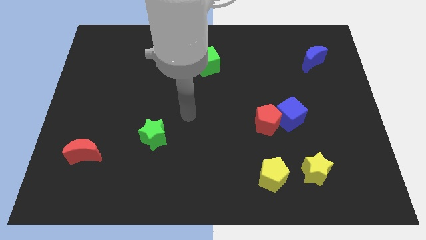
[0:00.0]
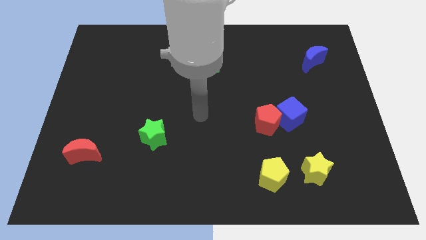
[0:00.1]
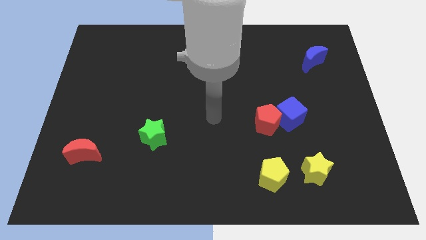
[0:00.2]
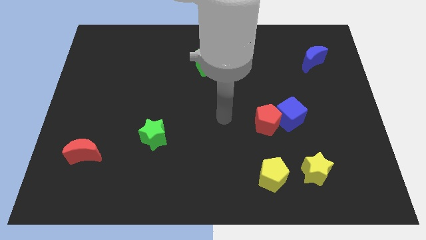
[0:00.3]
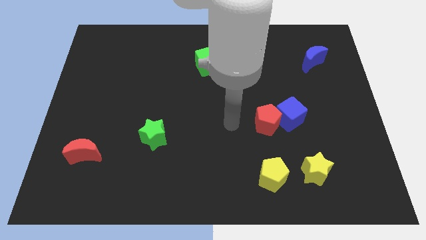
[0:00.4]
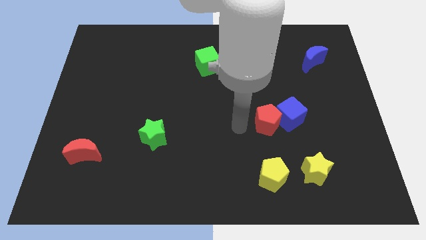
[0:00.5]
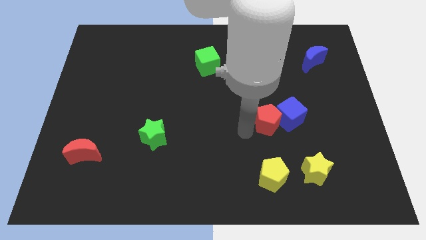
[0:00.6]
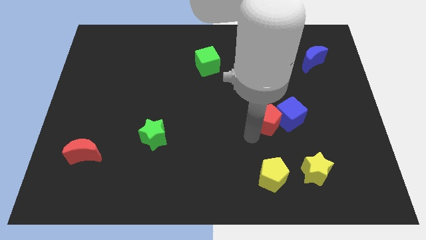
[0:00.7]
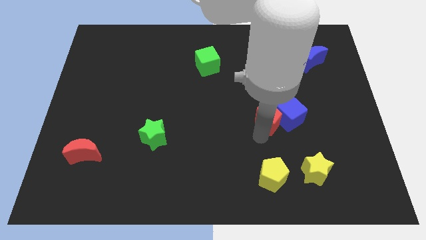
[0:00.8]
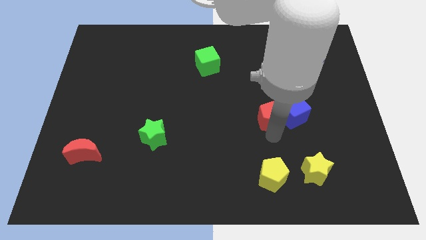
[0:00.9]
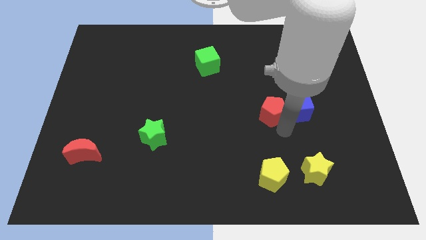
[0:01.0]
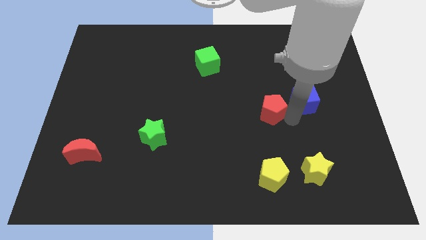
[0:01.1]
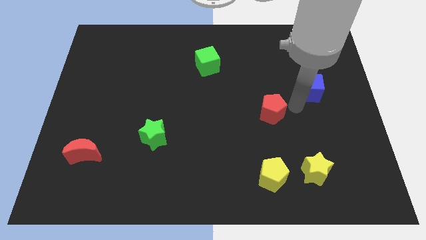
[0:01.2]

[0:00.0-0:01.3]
separate the red pentagon from the blue cube

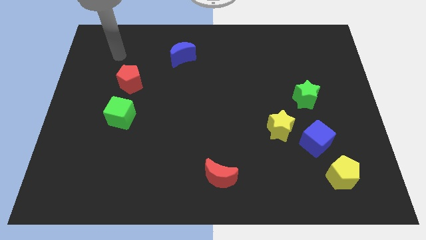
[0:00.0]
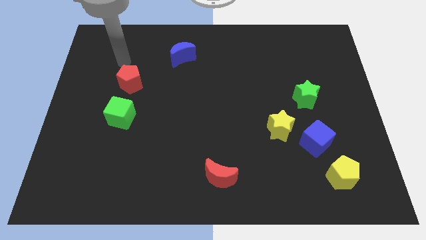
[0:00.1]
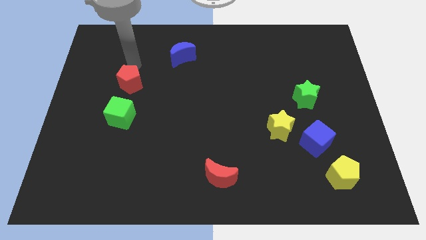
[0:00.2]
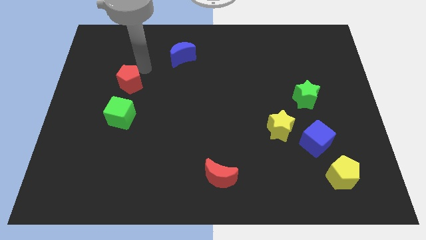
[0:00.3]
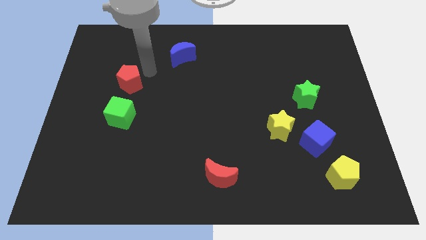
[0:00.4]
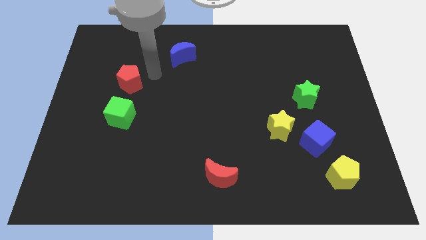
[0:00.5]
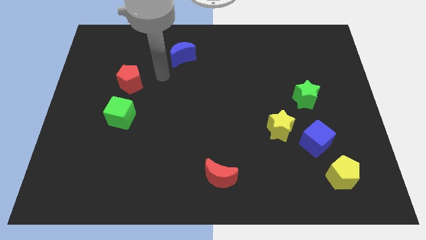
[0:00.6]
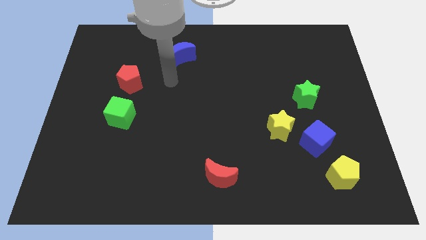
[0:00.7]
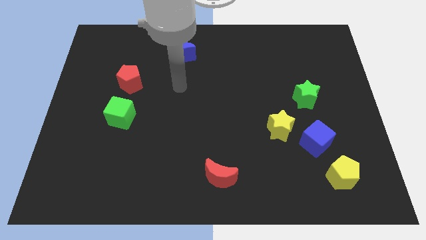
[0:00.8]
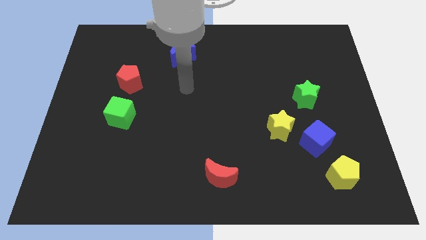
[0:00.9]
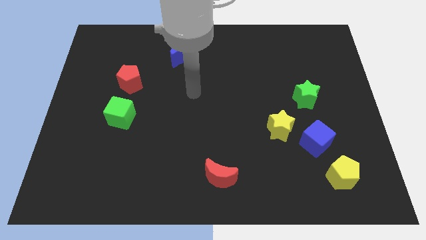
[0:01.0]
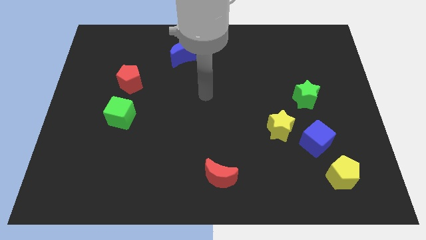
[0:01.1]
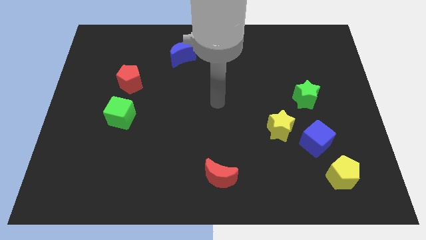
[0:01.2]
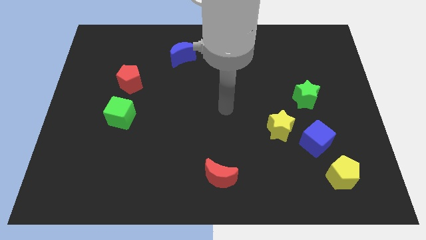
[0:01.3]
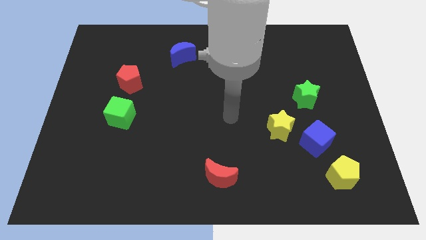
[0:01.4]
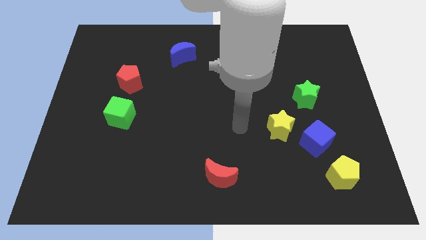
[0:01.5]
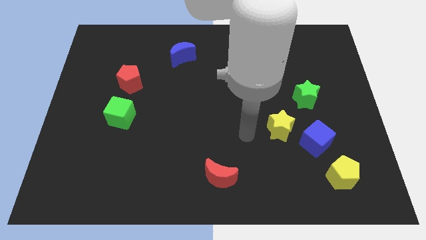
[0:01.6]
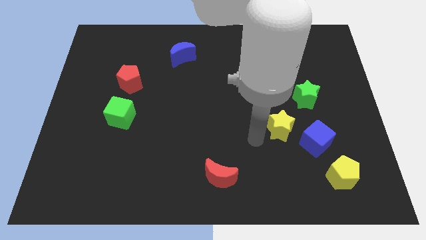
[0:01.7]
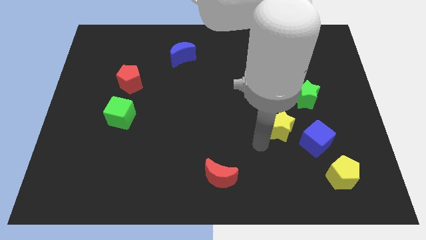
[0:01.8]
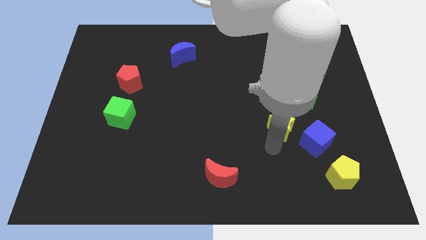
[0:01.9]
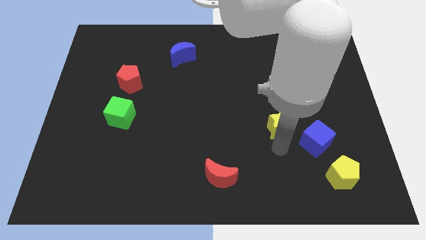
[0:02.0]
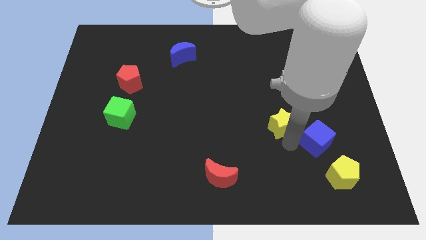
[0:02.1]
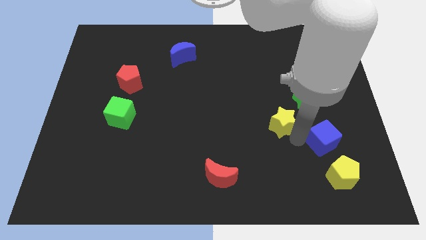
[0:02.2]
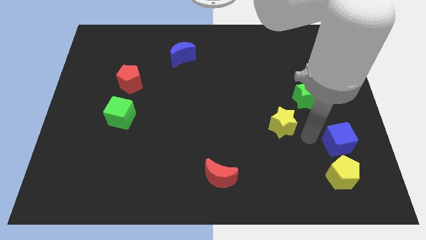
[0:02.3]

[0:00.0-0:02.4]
separate the yellow star from the blue cube

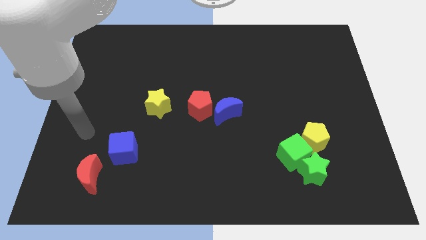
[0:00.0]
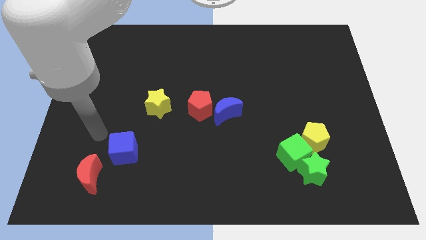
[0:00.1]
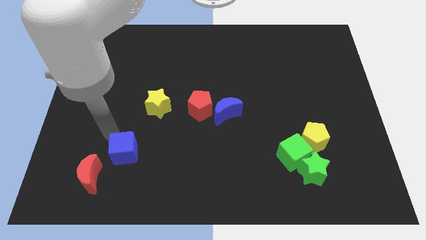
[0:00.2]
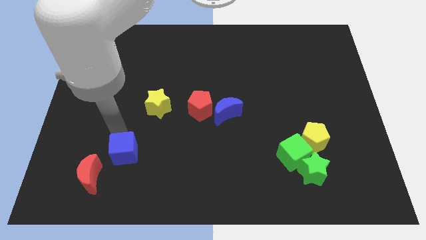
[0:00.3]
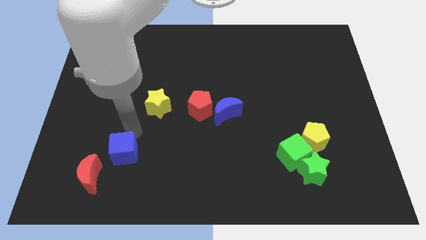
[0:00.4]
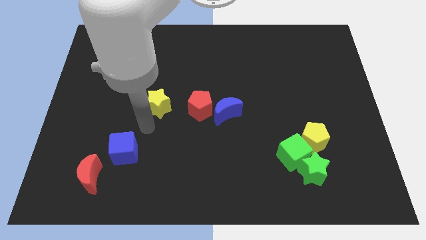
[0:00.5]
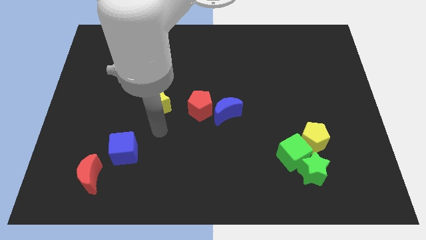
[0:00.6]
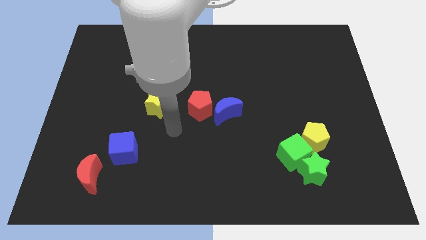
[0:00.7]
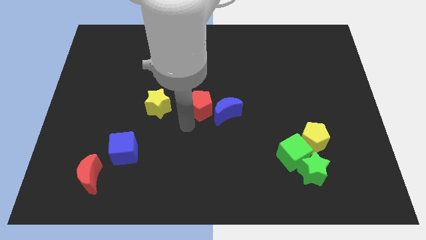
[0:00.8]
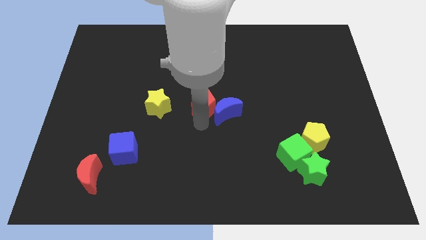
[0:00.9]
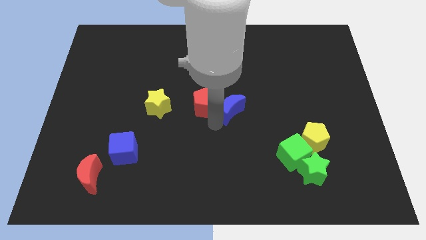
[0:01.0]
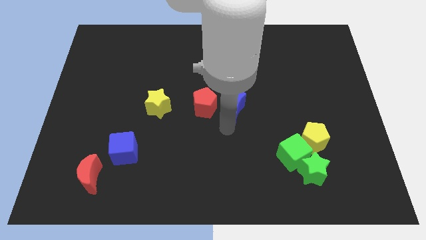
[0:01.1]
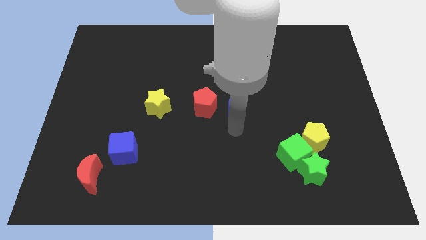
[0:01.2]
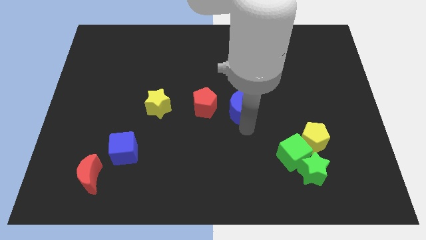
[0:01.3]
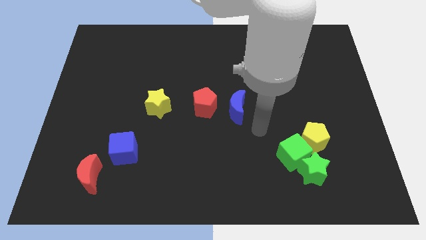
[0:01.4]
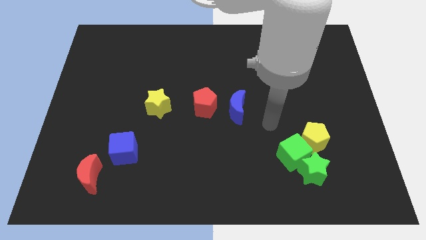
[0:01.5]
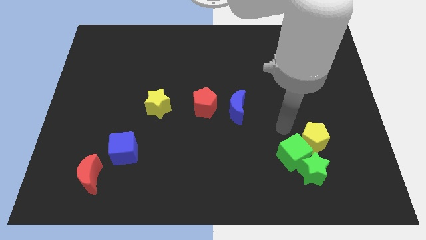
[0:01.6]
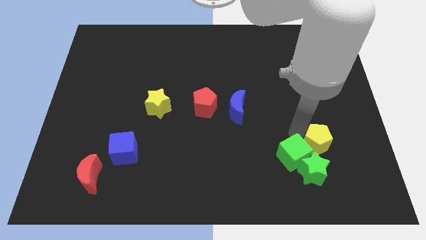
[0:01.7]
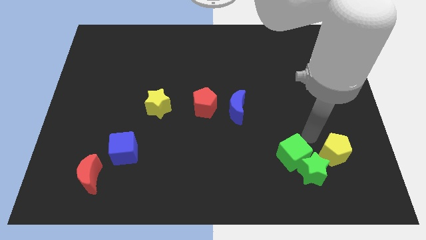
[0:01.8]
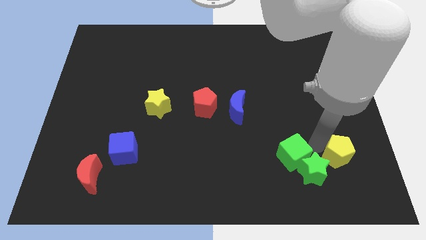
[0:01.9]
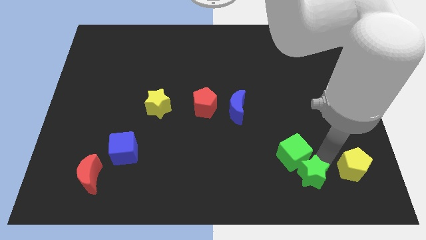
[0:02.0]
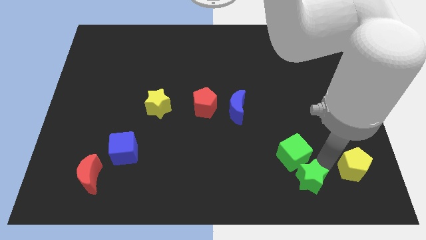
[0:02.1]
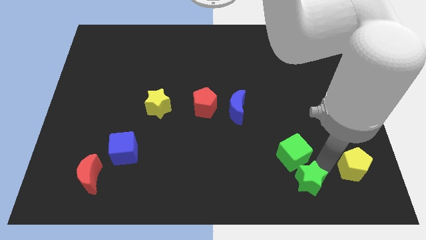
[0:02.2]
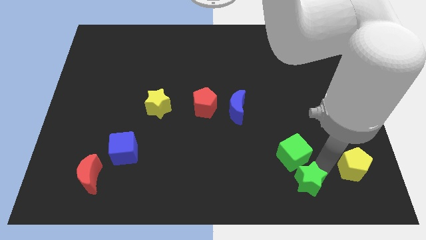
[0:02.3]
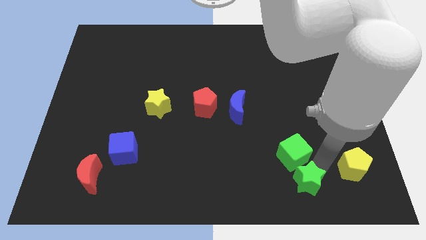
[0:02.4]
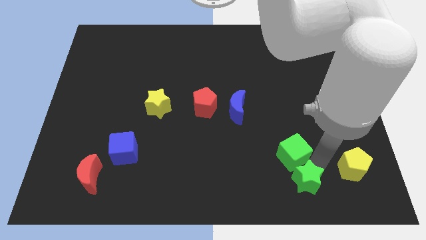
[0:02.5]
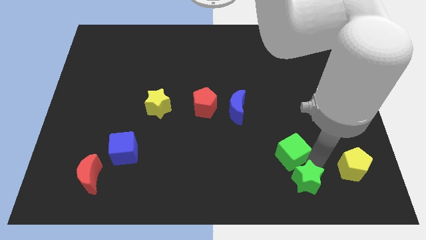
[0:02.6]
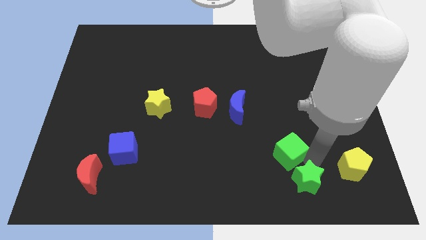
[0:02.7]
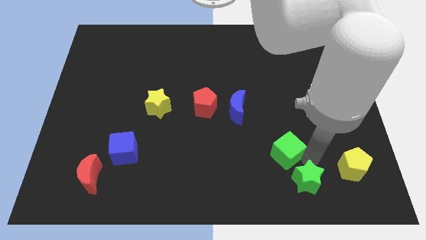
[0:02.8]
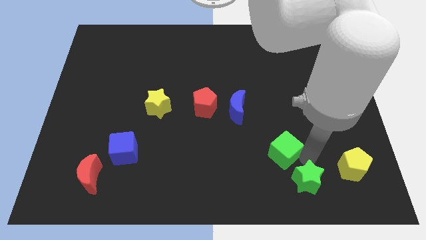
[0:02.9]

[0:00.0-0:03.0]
pull the green cube apart from the green star and yellow pentagon

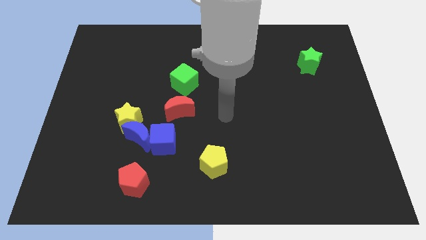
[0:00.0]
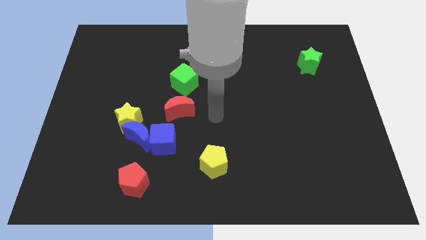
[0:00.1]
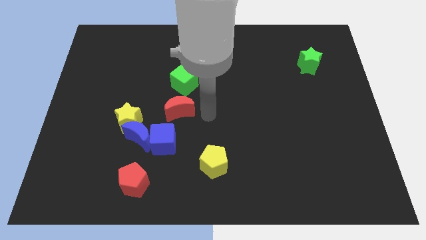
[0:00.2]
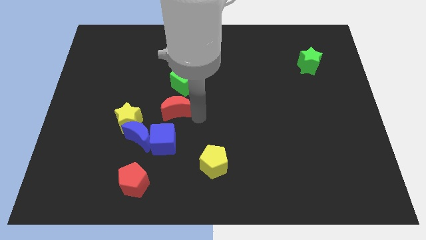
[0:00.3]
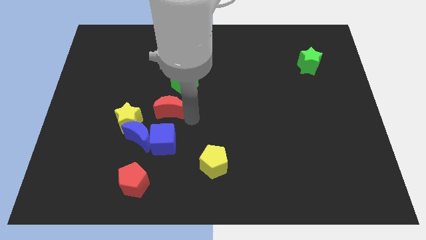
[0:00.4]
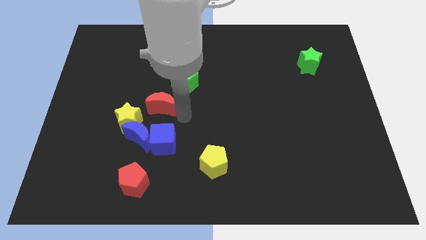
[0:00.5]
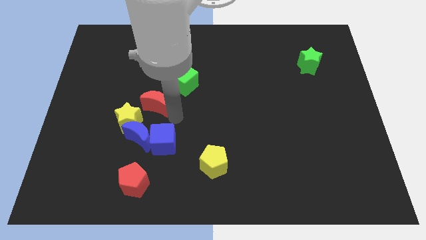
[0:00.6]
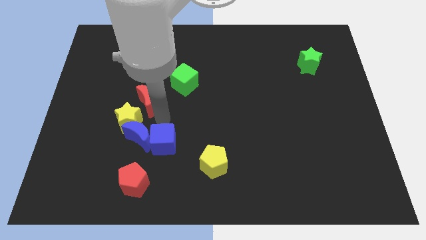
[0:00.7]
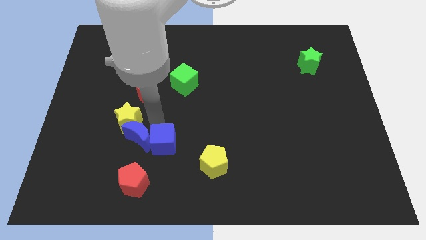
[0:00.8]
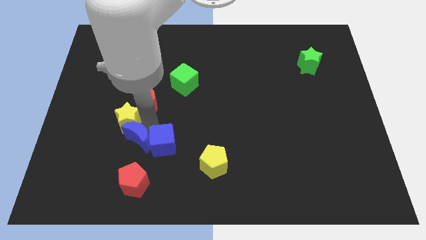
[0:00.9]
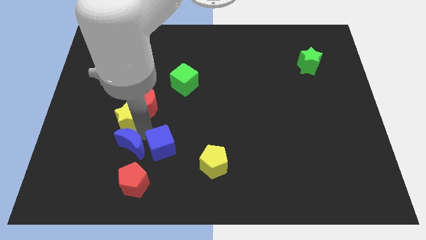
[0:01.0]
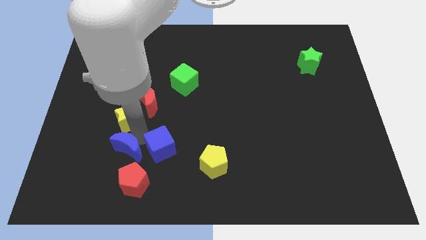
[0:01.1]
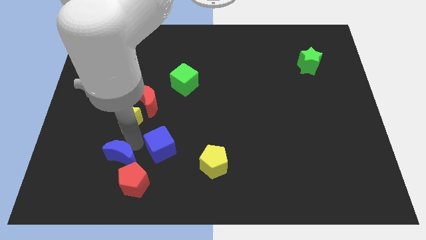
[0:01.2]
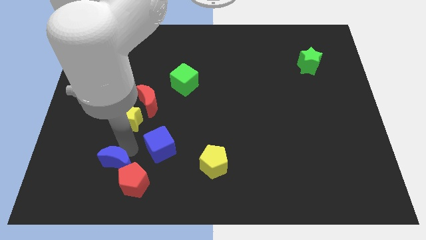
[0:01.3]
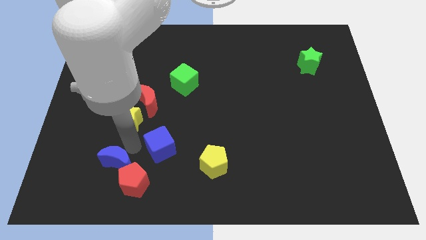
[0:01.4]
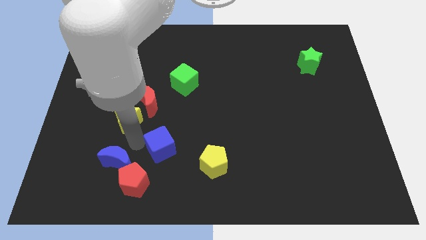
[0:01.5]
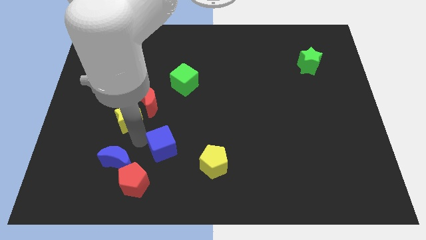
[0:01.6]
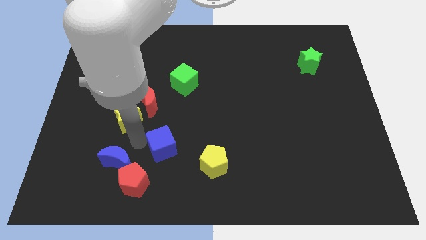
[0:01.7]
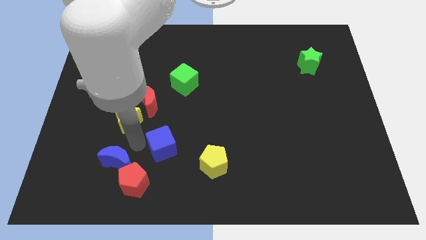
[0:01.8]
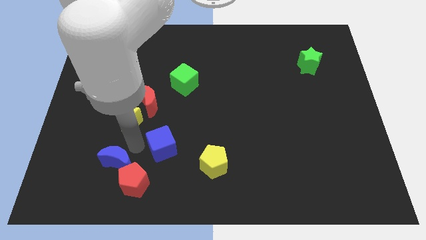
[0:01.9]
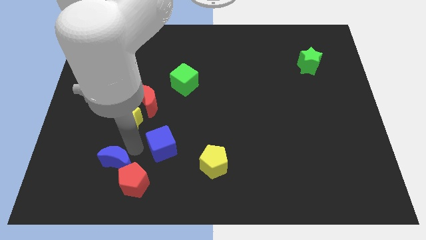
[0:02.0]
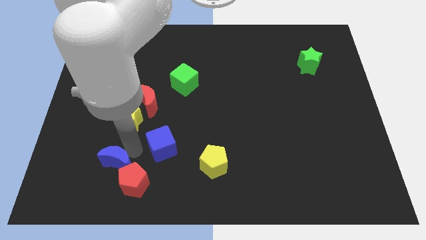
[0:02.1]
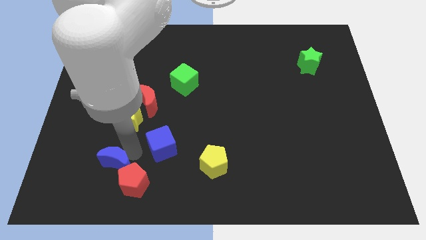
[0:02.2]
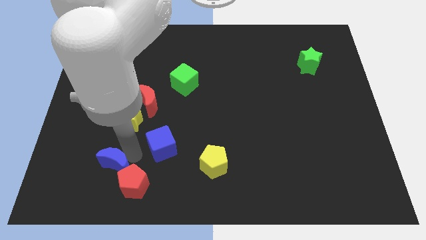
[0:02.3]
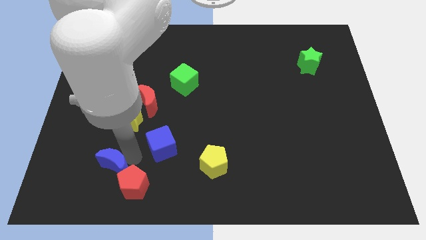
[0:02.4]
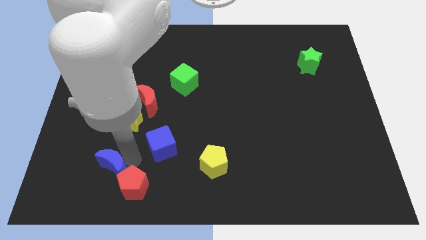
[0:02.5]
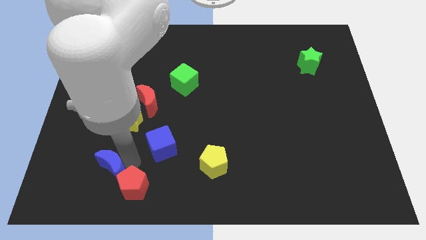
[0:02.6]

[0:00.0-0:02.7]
separate the blue moon from the yellow star and blue cube

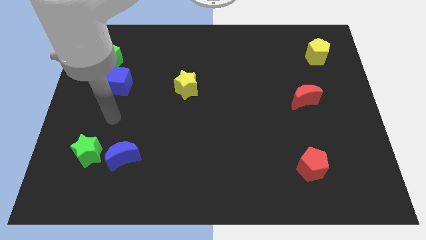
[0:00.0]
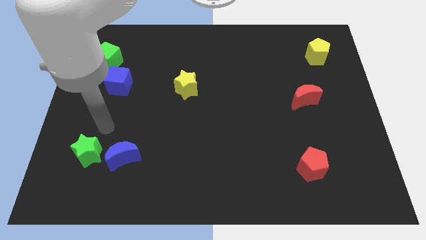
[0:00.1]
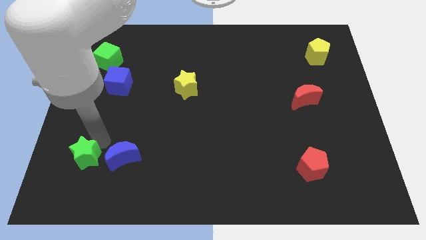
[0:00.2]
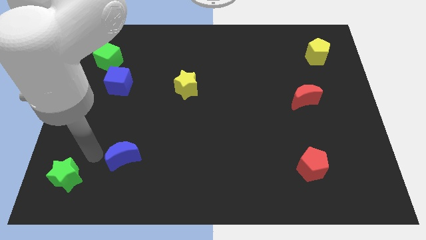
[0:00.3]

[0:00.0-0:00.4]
separate the blue moon from the green star
